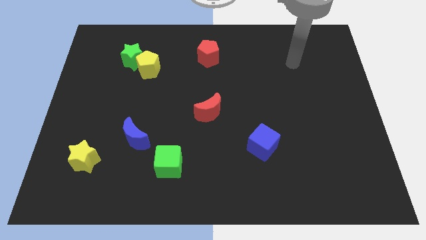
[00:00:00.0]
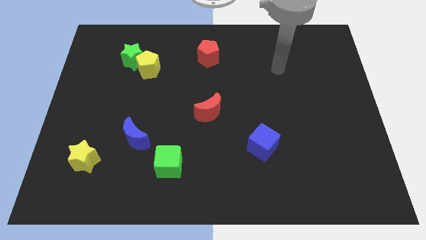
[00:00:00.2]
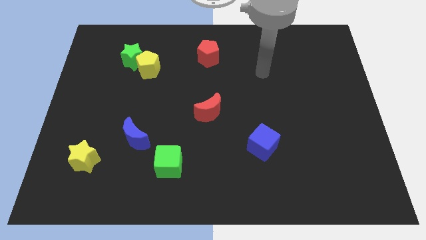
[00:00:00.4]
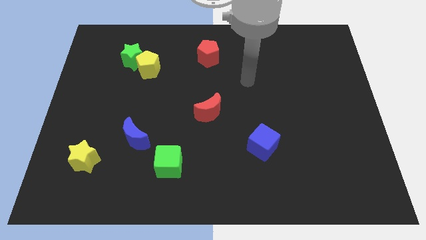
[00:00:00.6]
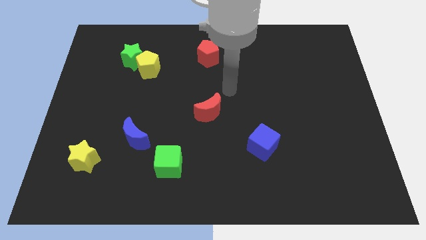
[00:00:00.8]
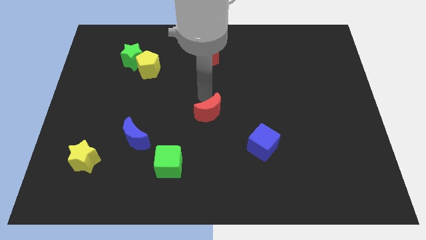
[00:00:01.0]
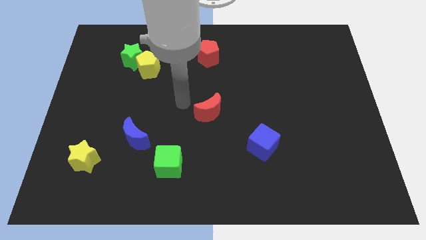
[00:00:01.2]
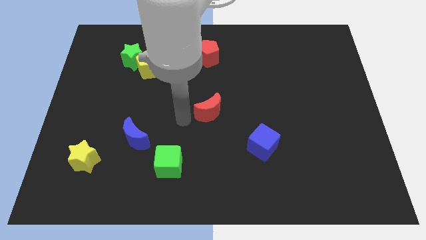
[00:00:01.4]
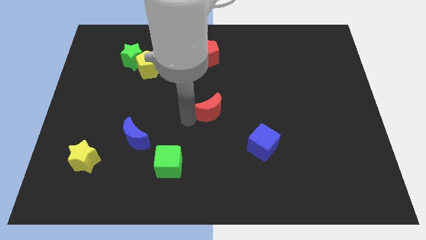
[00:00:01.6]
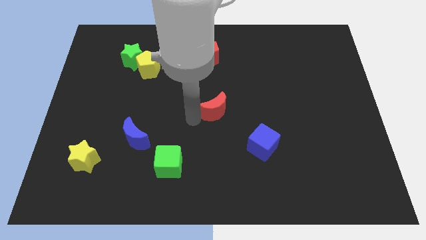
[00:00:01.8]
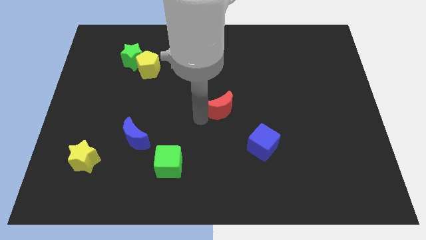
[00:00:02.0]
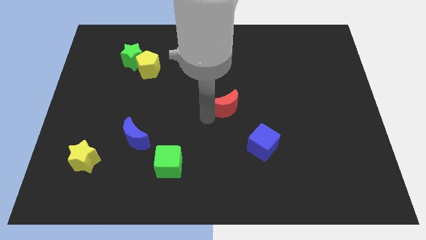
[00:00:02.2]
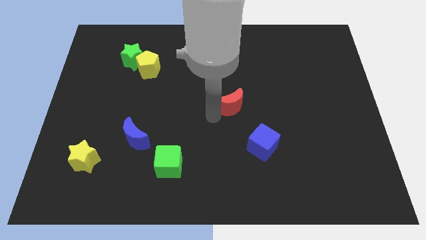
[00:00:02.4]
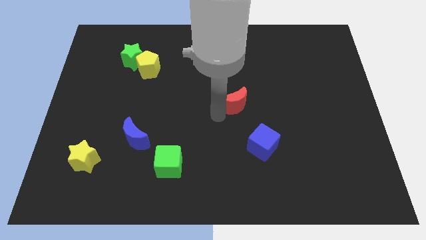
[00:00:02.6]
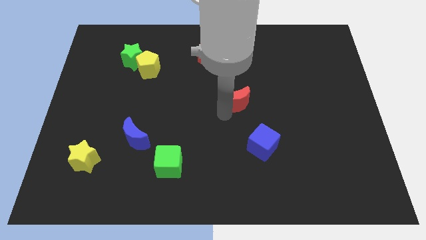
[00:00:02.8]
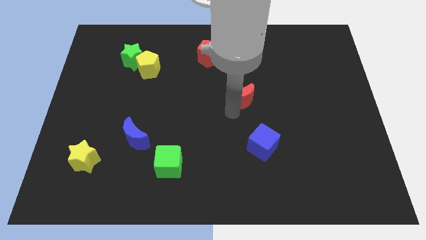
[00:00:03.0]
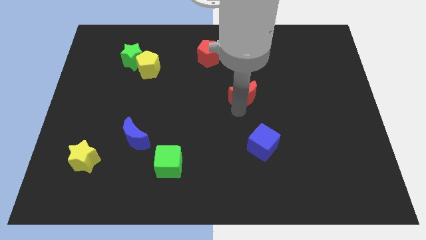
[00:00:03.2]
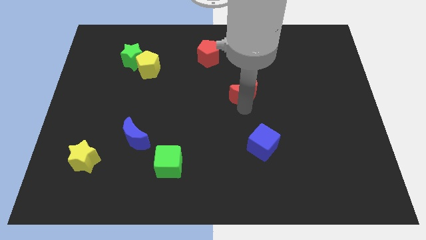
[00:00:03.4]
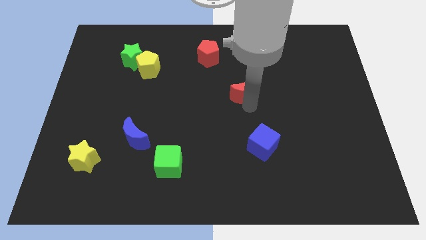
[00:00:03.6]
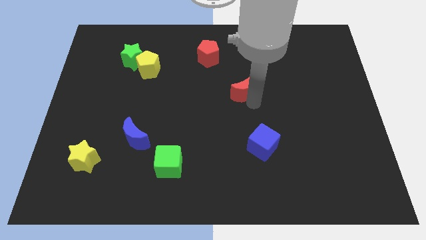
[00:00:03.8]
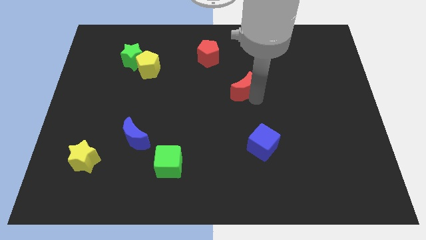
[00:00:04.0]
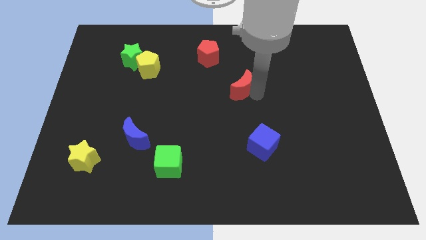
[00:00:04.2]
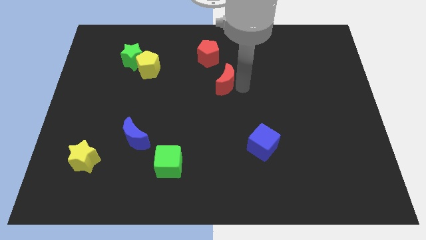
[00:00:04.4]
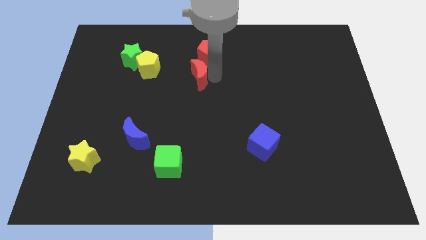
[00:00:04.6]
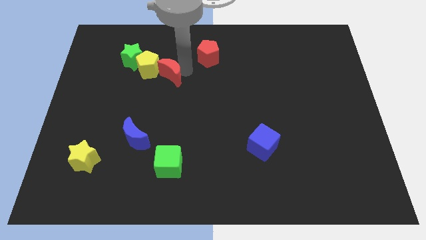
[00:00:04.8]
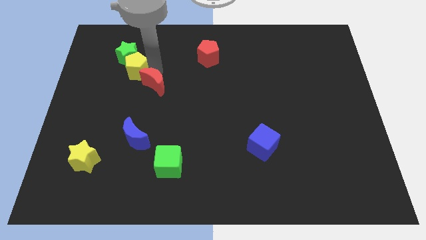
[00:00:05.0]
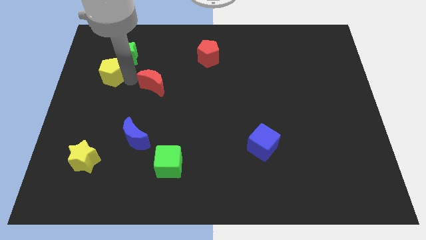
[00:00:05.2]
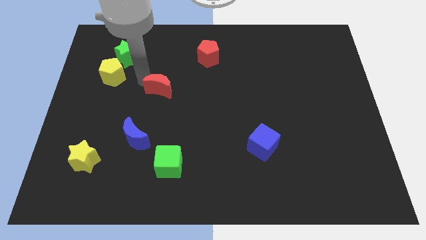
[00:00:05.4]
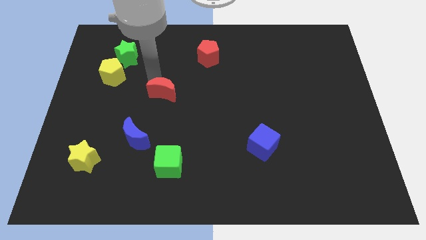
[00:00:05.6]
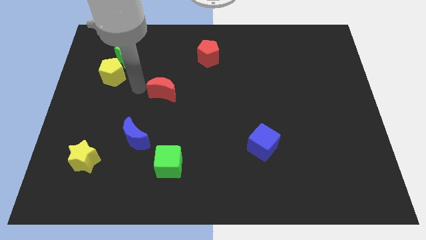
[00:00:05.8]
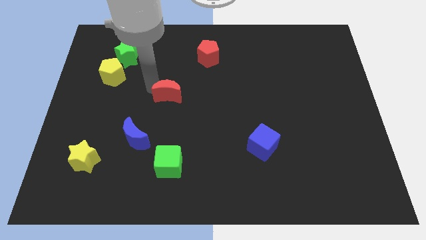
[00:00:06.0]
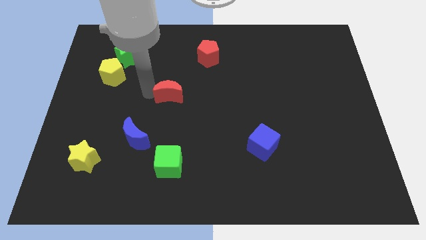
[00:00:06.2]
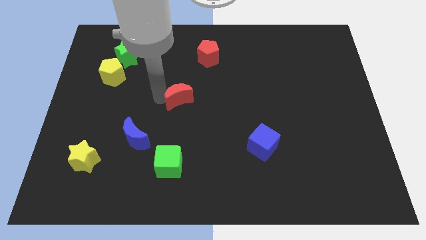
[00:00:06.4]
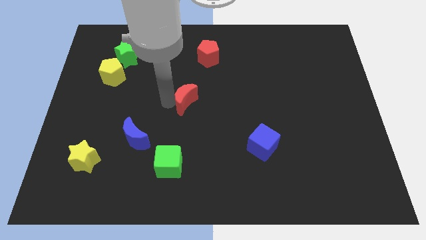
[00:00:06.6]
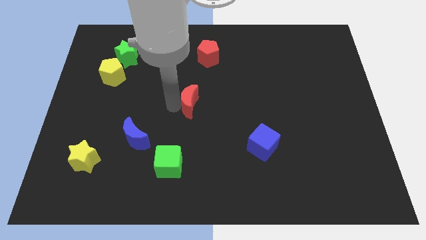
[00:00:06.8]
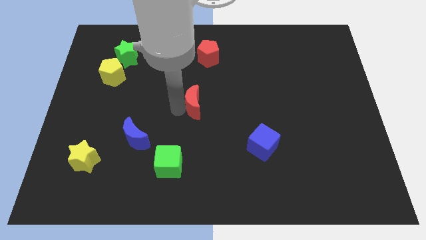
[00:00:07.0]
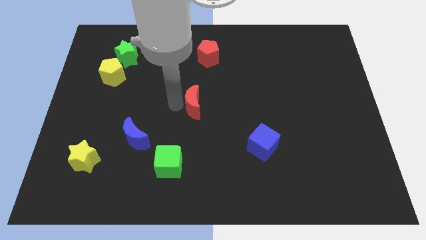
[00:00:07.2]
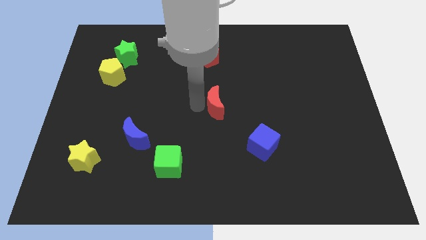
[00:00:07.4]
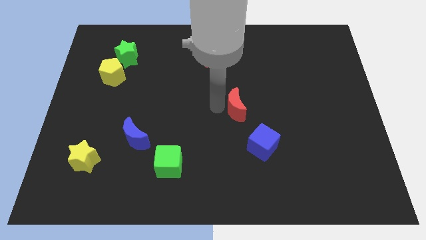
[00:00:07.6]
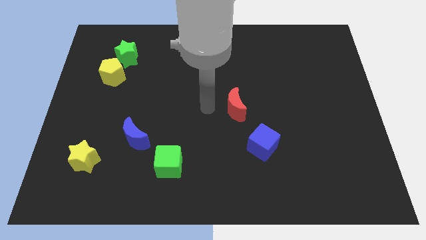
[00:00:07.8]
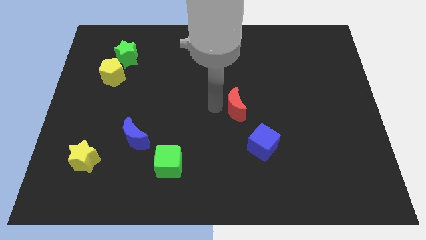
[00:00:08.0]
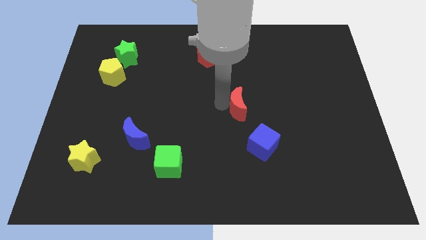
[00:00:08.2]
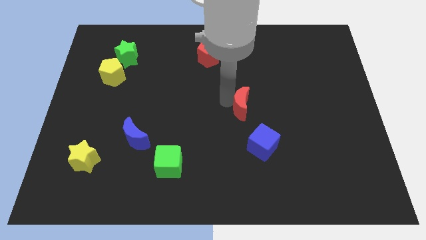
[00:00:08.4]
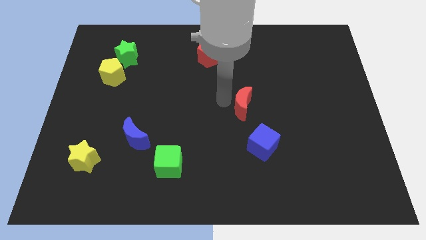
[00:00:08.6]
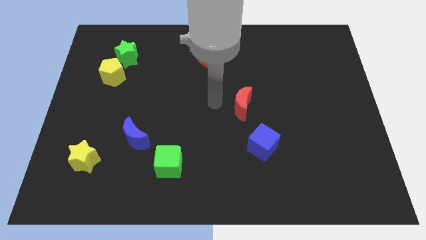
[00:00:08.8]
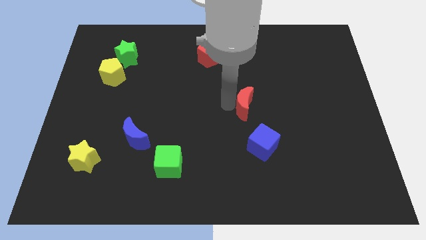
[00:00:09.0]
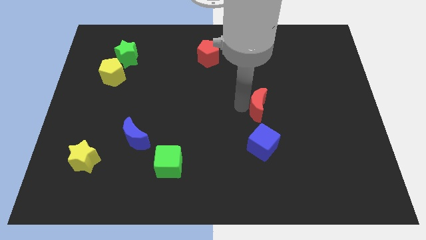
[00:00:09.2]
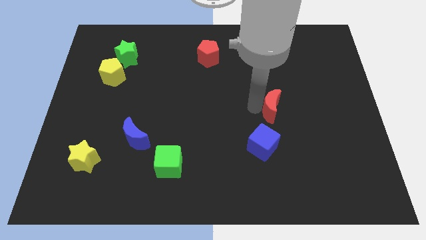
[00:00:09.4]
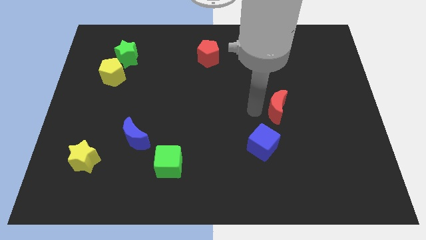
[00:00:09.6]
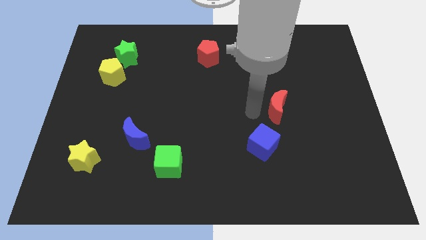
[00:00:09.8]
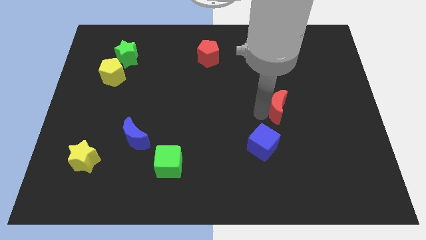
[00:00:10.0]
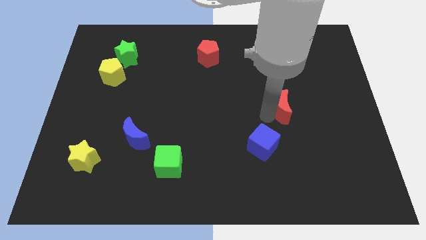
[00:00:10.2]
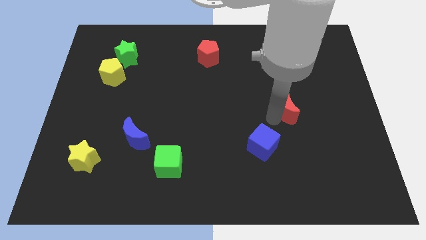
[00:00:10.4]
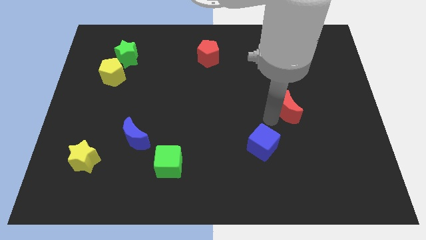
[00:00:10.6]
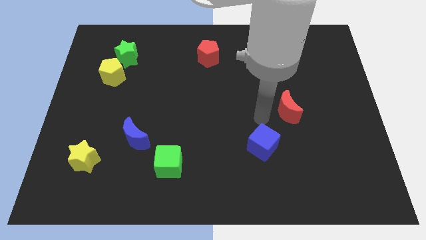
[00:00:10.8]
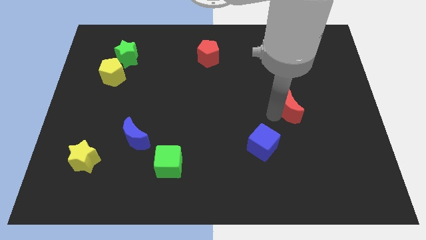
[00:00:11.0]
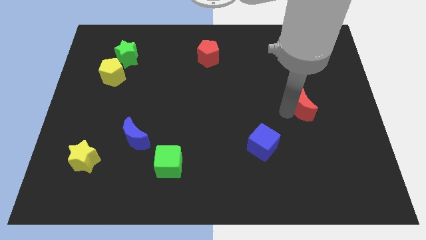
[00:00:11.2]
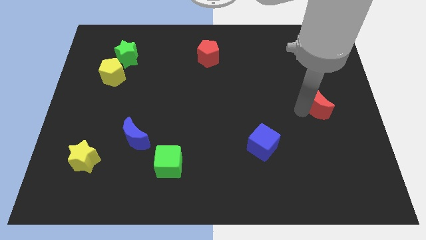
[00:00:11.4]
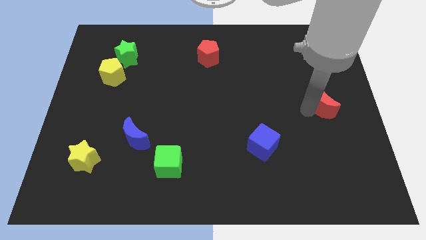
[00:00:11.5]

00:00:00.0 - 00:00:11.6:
slide the red moon to the center right

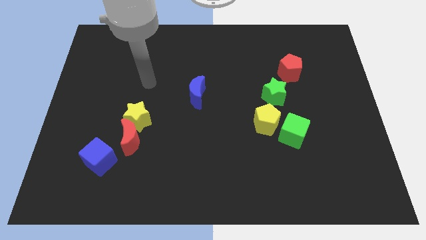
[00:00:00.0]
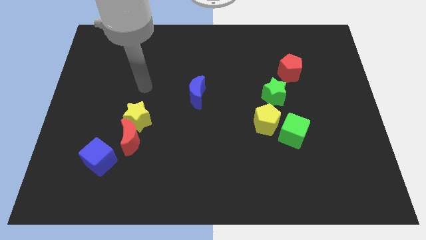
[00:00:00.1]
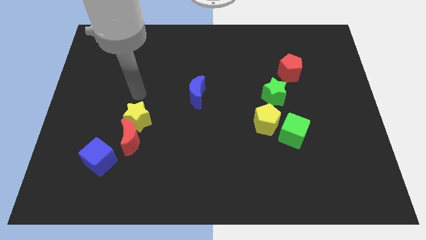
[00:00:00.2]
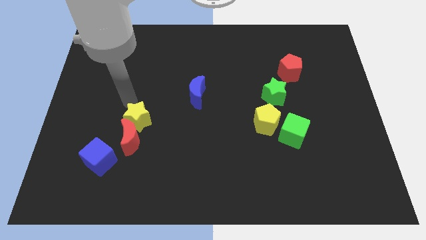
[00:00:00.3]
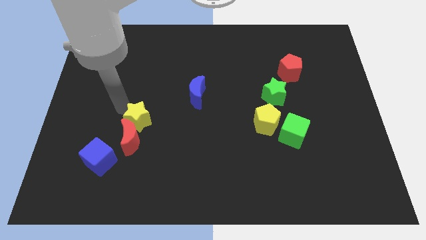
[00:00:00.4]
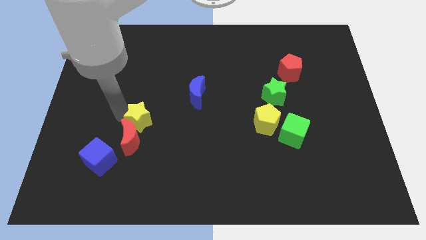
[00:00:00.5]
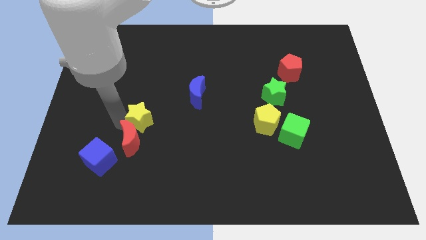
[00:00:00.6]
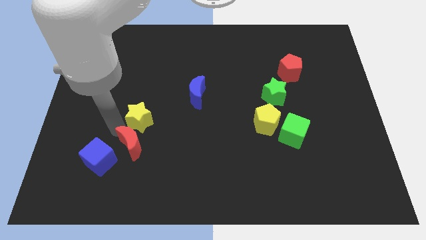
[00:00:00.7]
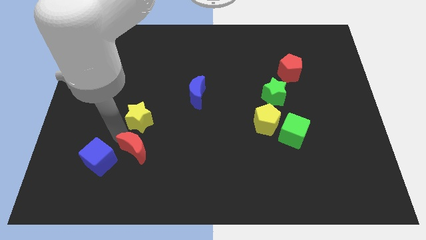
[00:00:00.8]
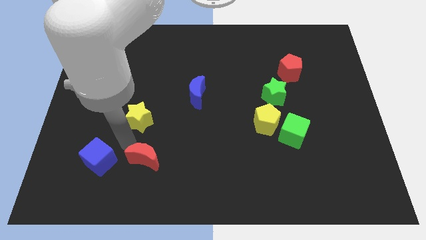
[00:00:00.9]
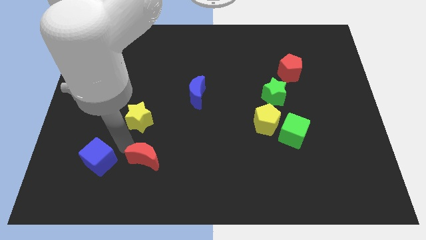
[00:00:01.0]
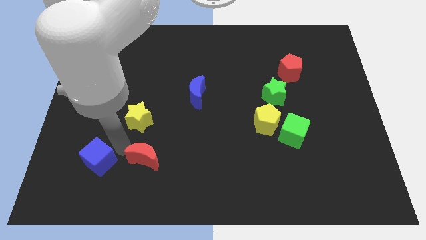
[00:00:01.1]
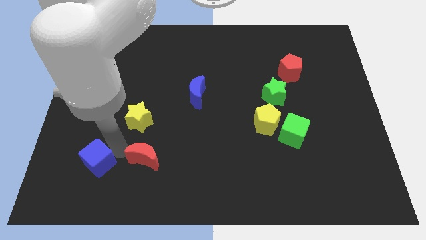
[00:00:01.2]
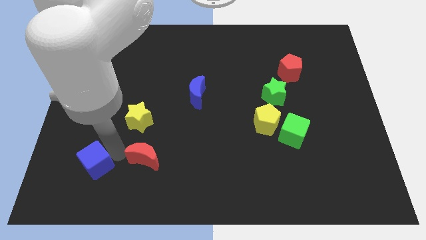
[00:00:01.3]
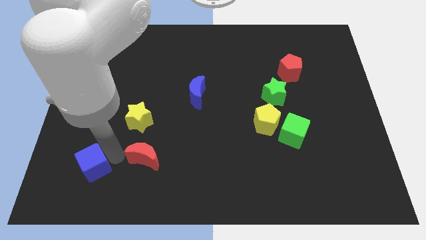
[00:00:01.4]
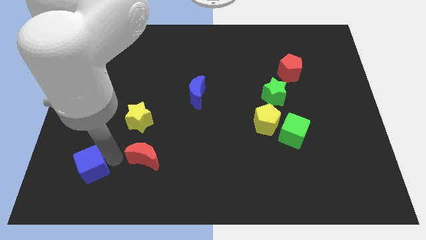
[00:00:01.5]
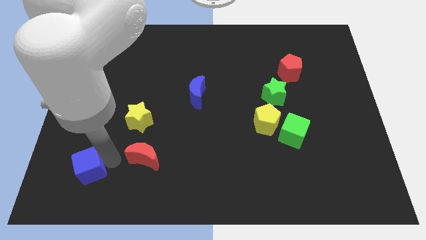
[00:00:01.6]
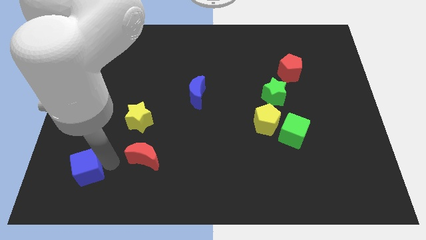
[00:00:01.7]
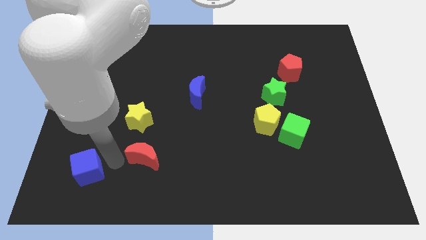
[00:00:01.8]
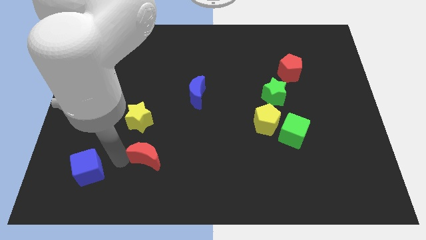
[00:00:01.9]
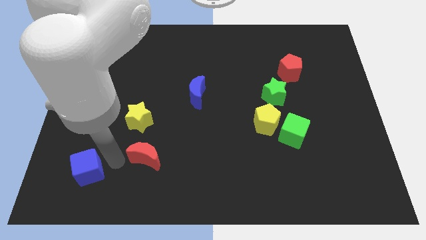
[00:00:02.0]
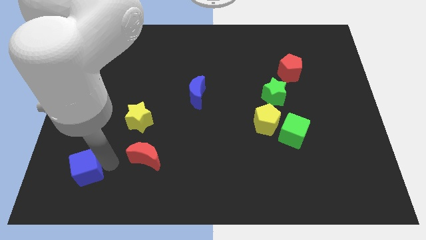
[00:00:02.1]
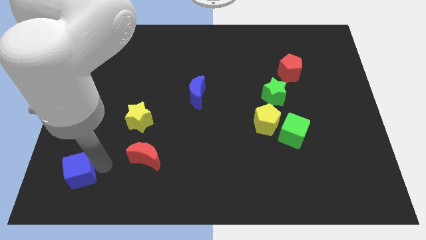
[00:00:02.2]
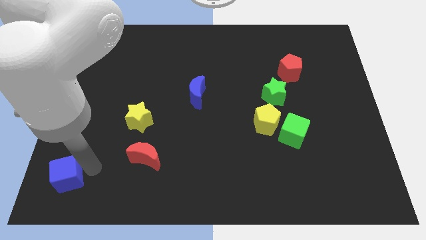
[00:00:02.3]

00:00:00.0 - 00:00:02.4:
slide the blue cube to the bottom left of the board
